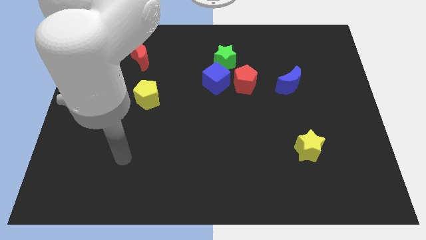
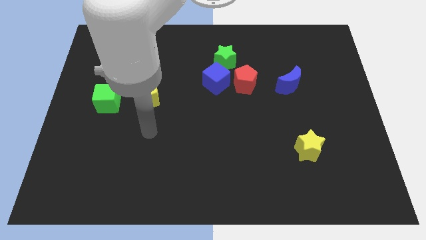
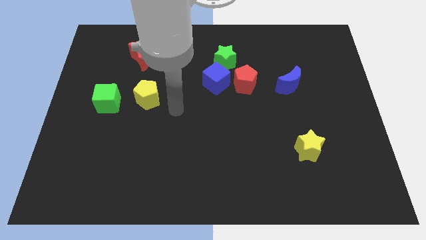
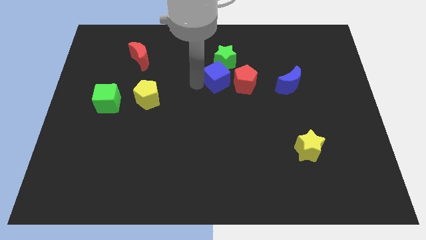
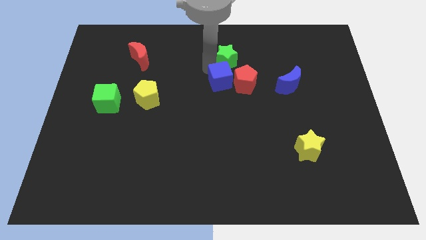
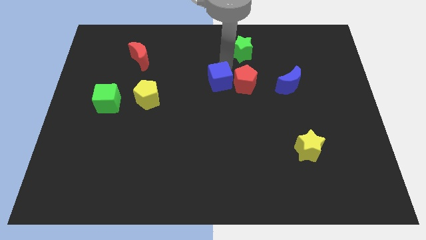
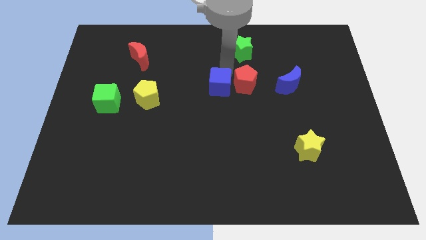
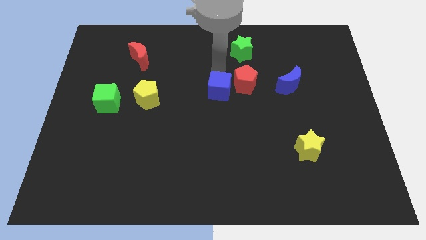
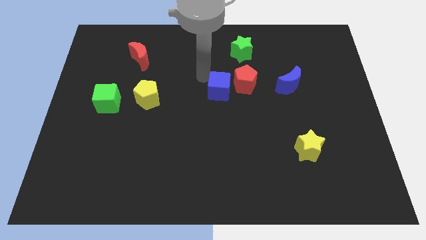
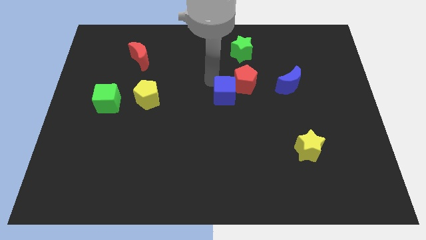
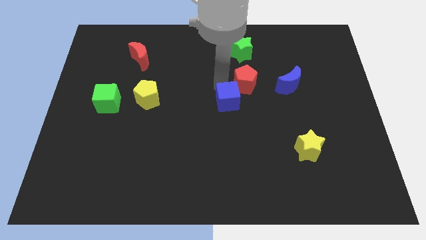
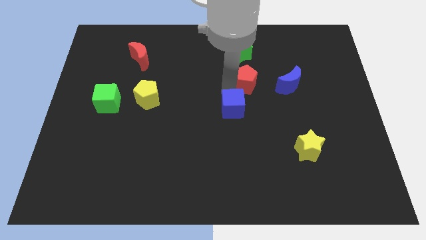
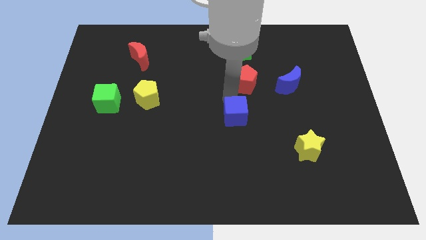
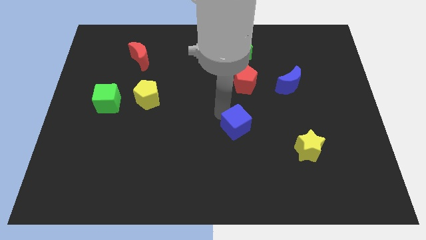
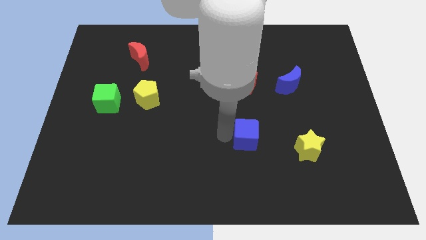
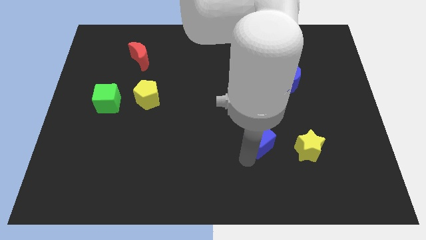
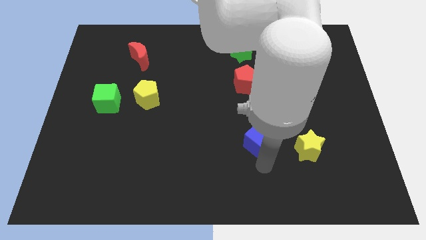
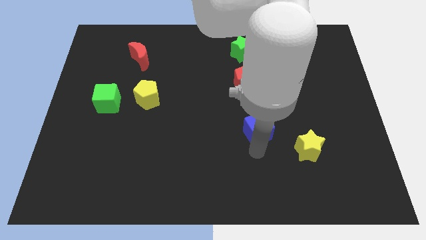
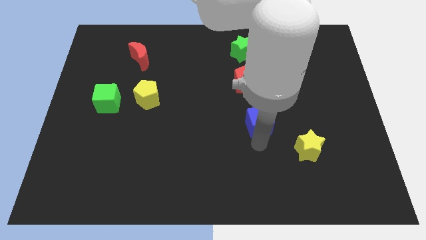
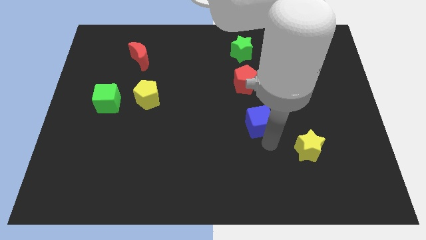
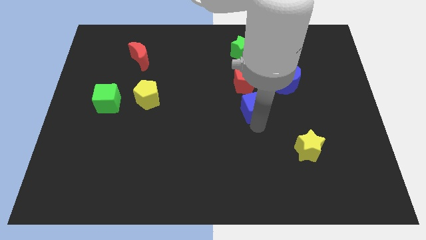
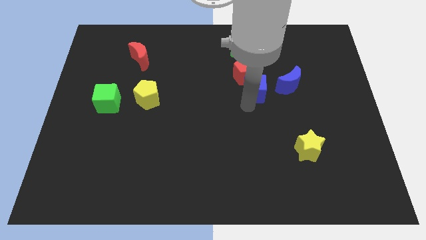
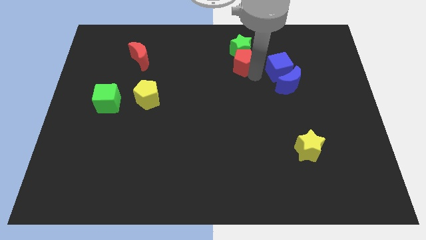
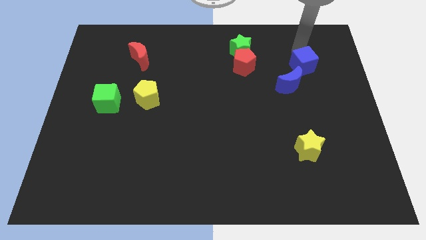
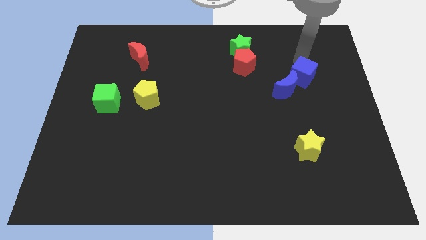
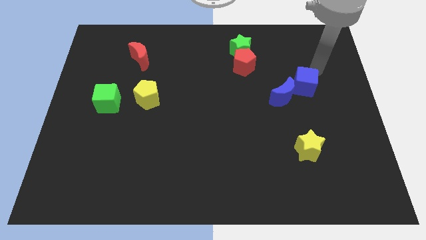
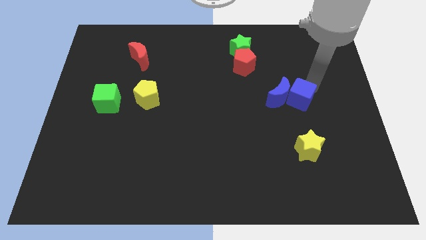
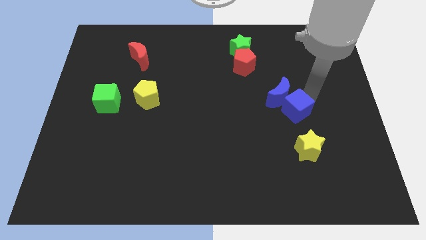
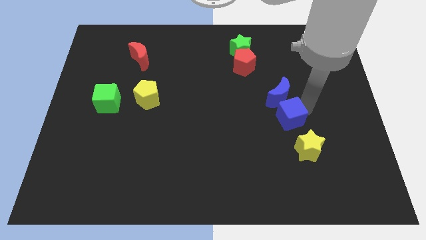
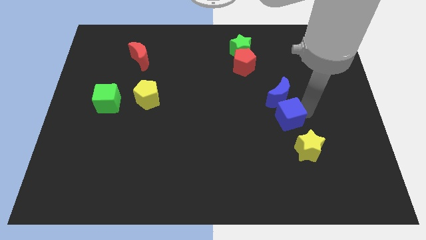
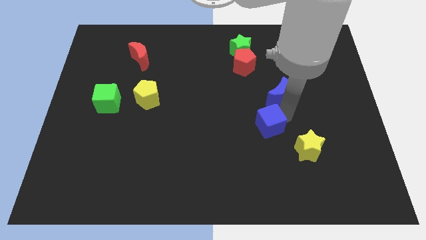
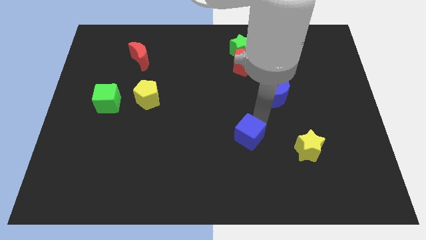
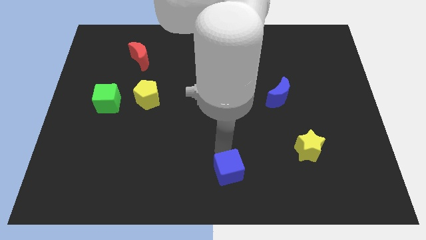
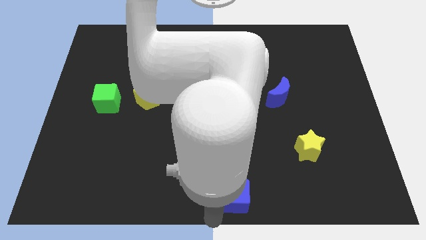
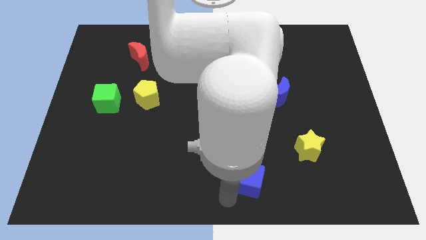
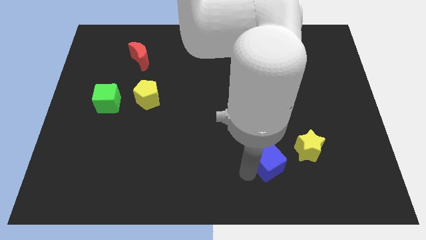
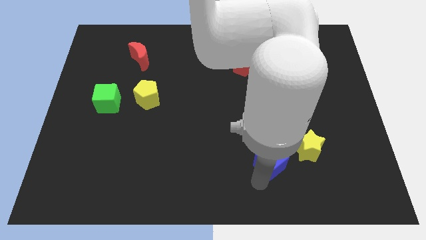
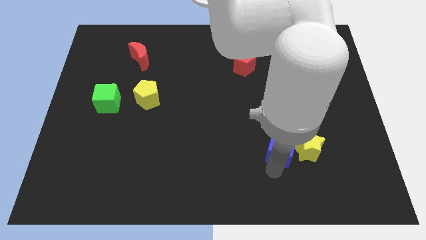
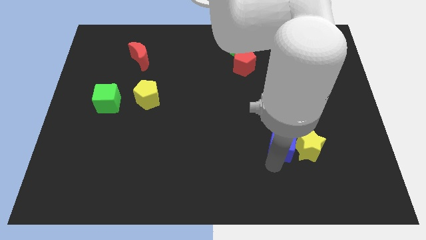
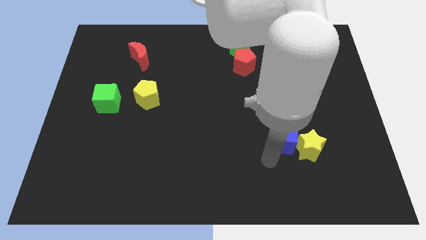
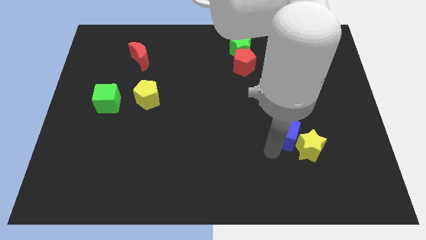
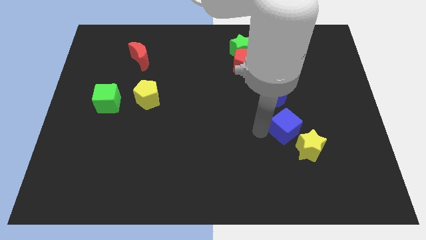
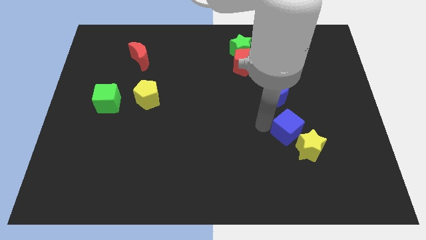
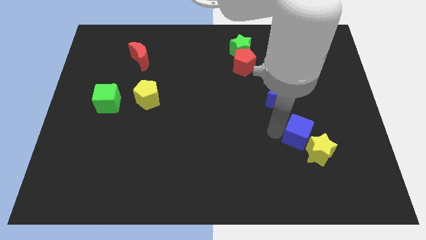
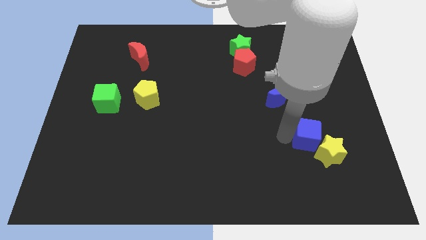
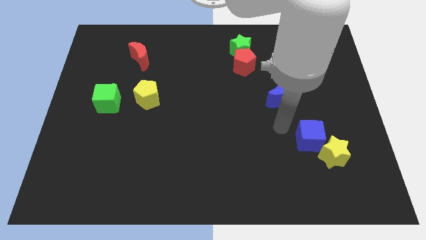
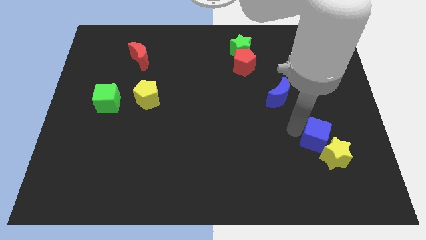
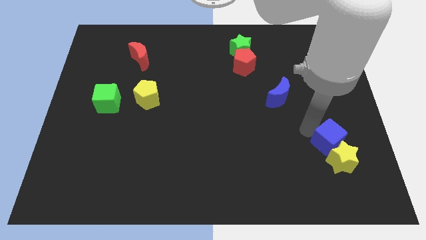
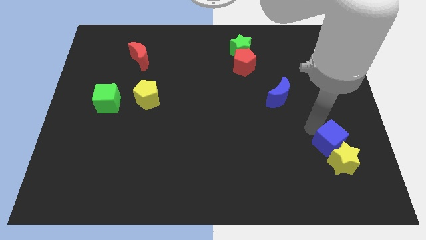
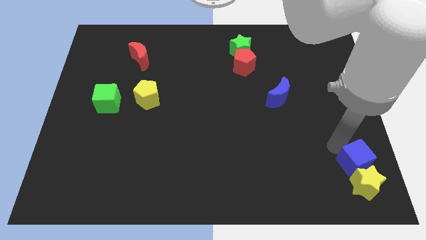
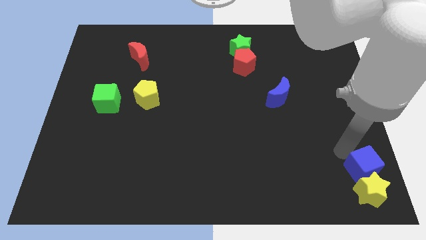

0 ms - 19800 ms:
move the blue cube to the bottom right of the board

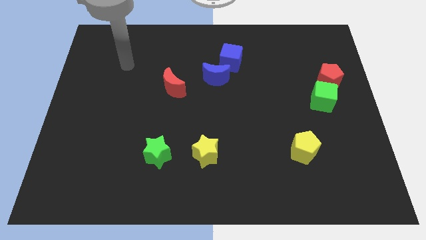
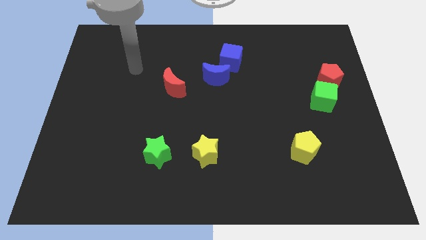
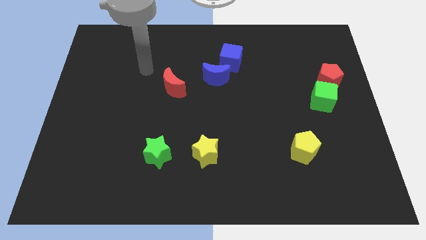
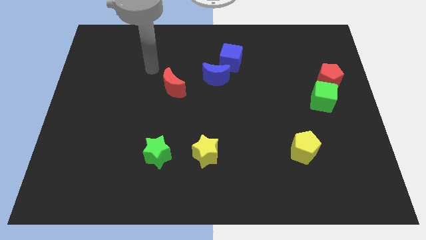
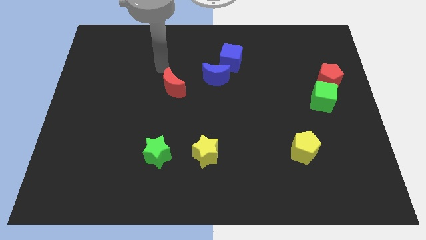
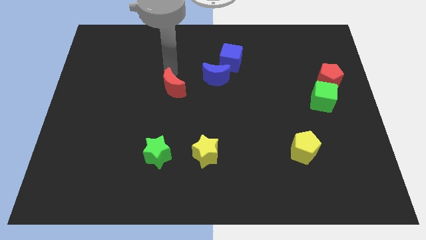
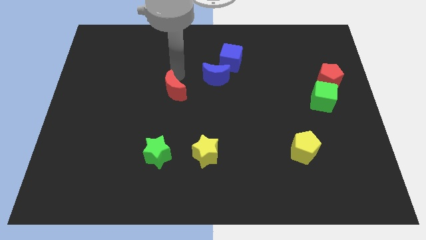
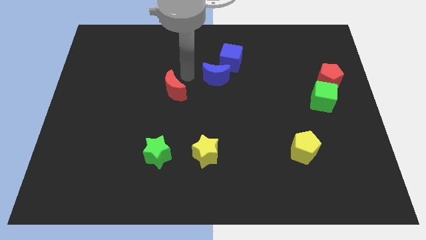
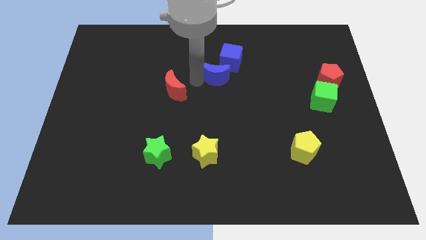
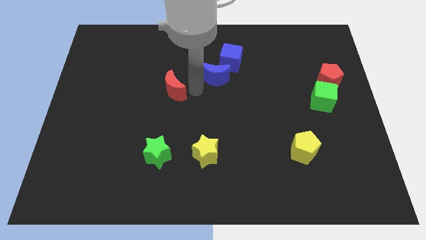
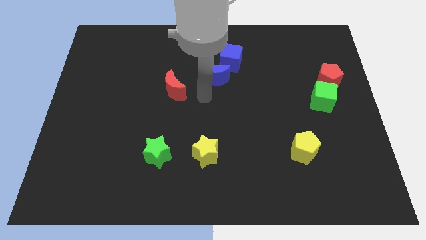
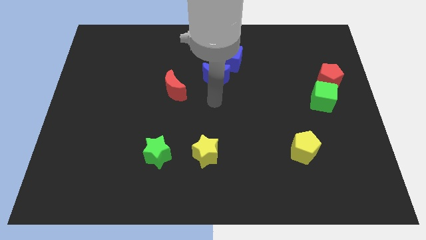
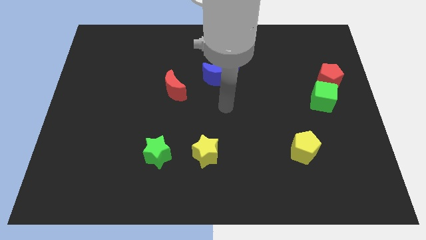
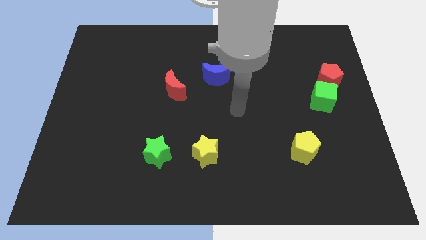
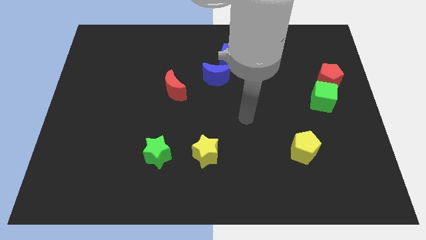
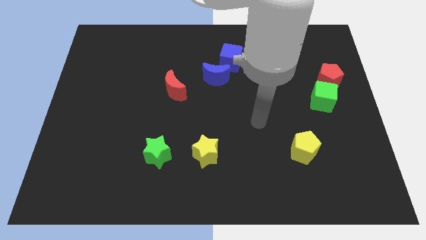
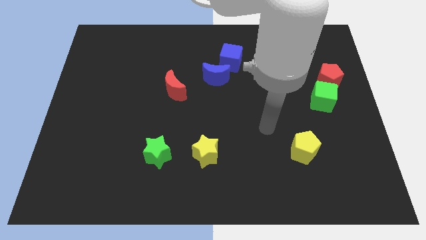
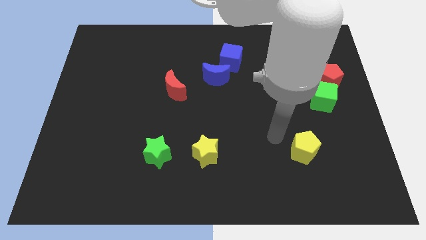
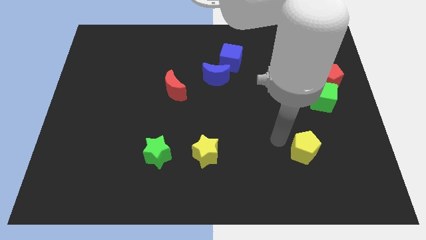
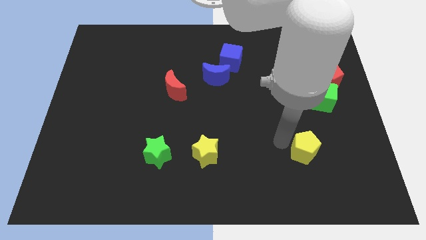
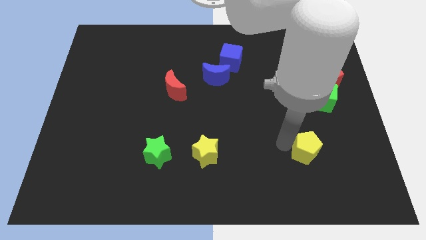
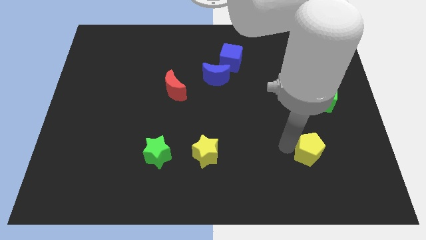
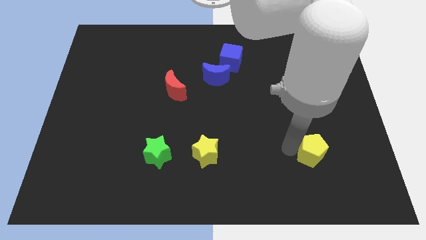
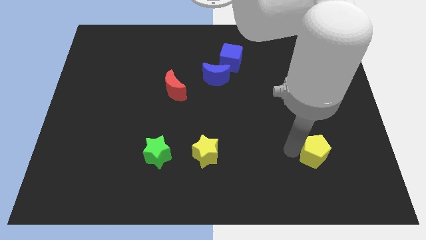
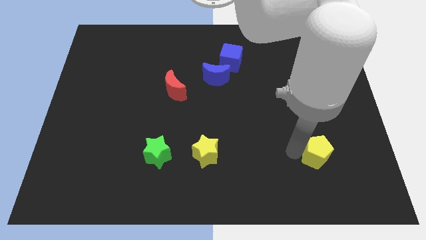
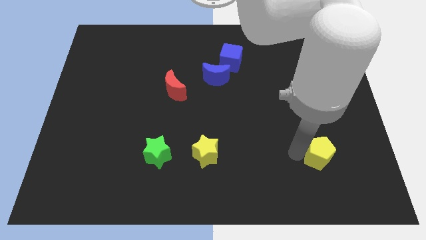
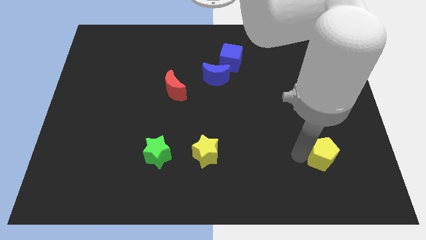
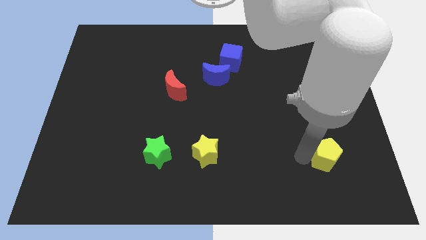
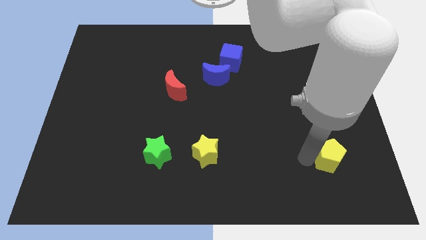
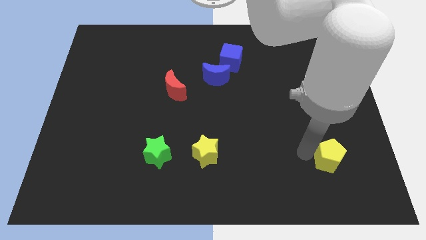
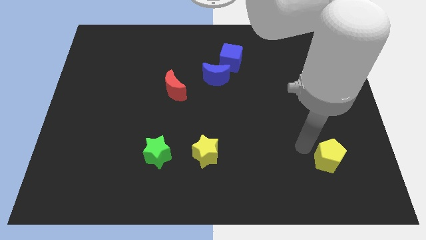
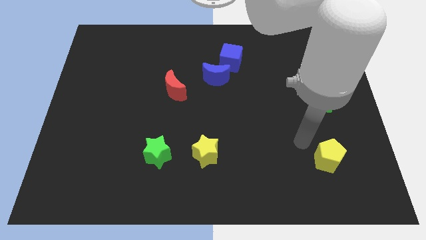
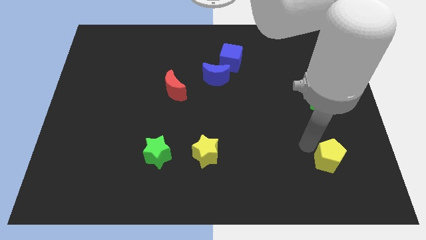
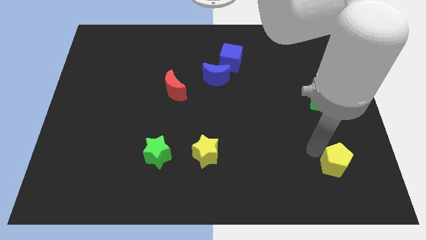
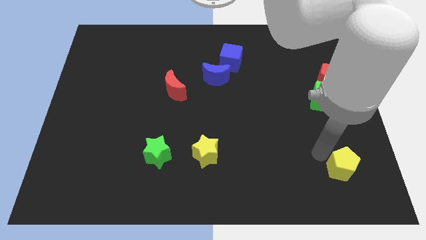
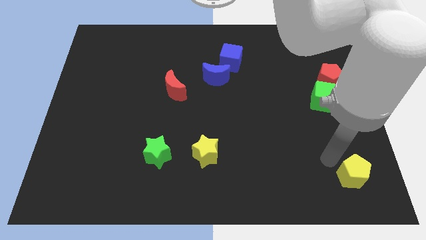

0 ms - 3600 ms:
push the yellow pentagon to the lower right corner
